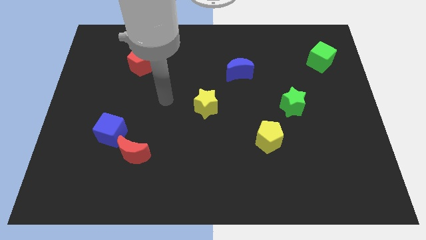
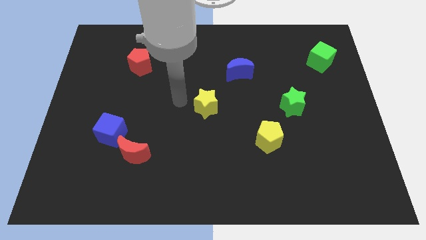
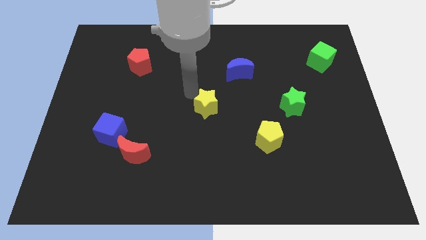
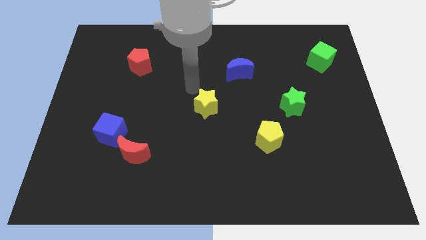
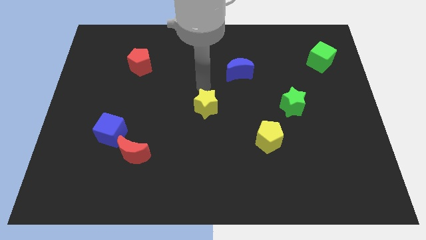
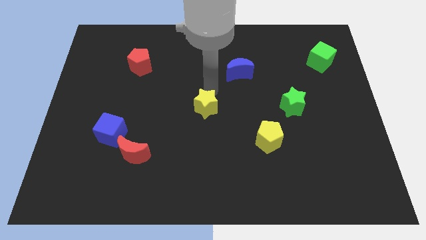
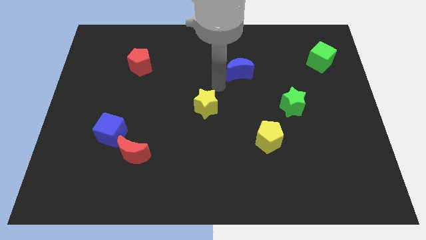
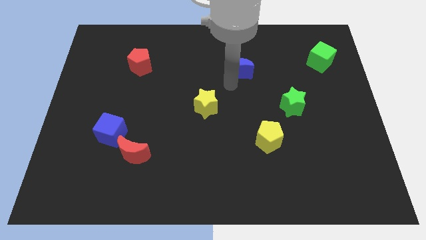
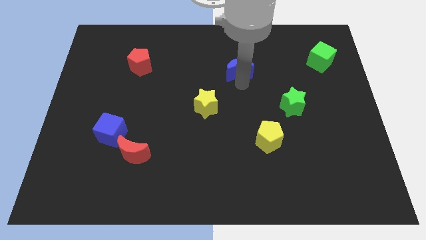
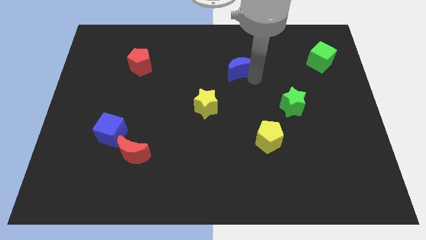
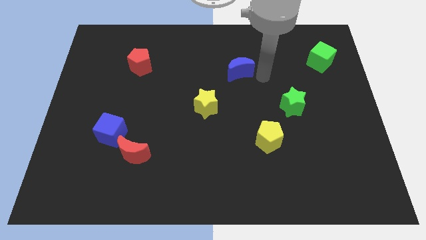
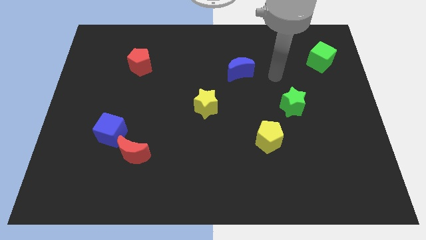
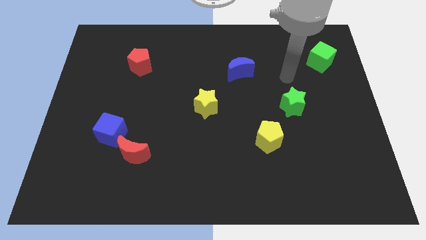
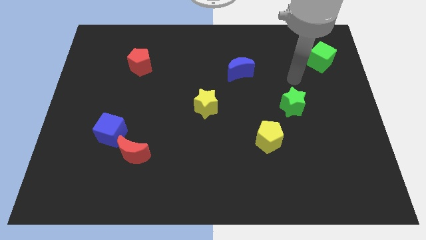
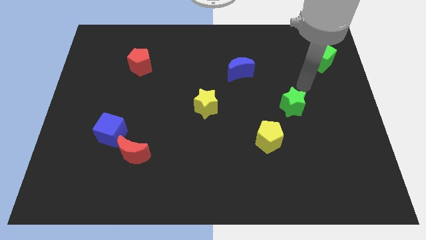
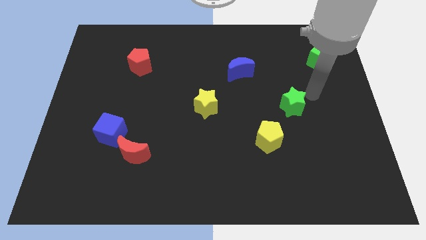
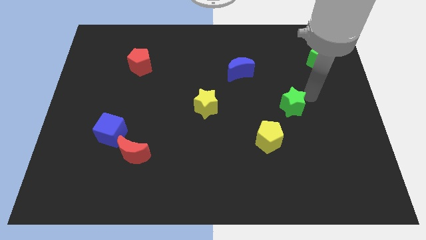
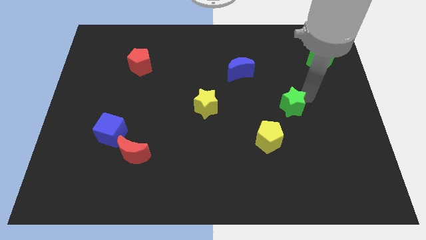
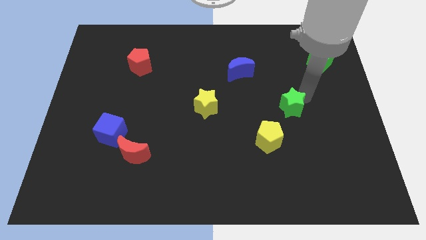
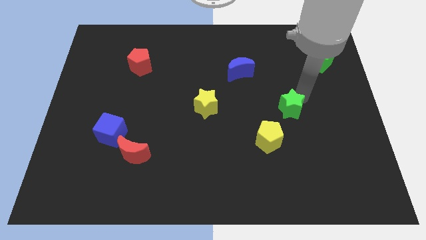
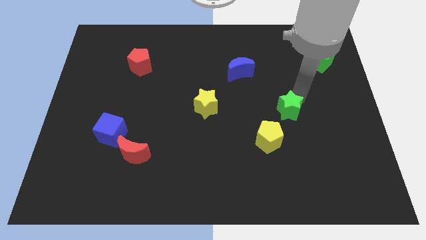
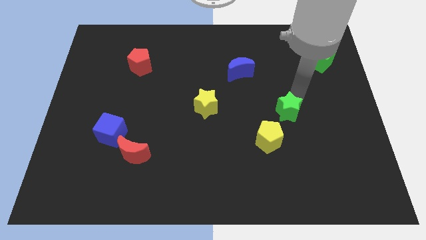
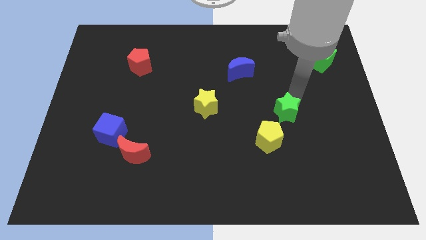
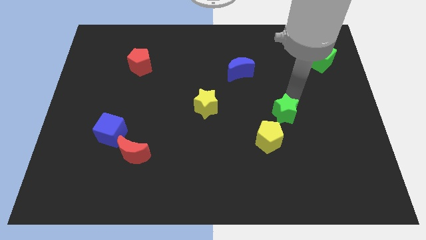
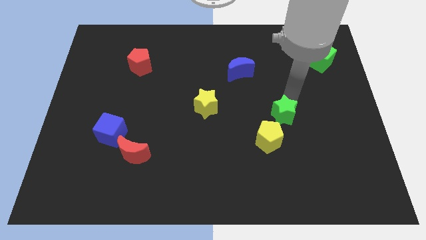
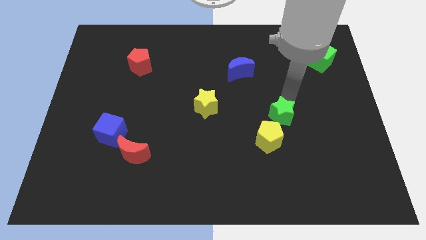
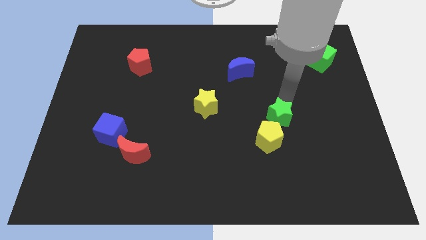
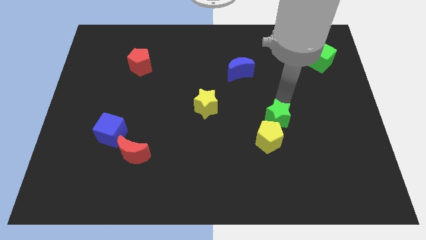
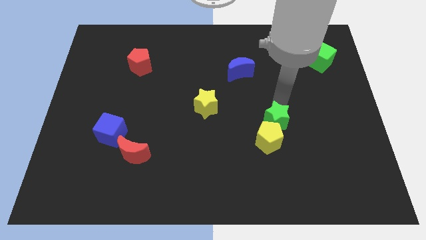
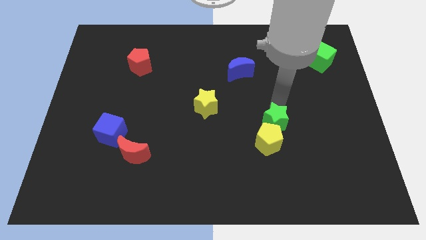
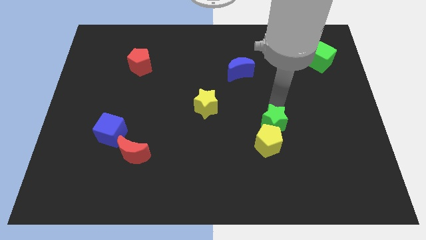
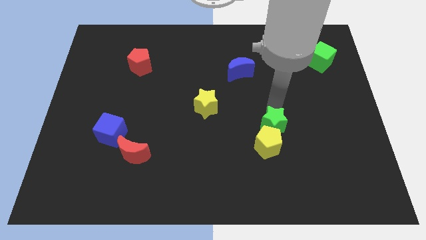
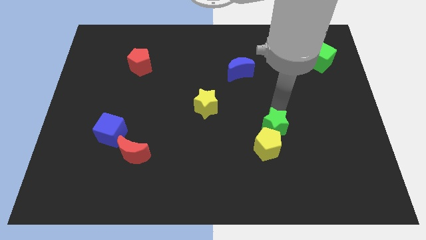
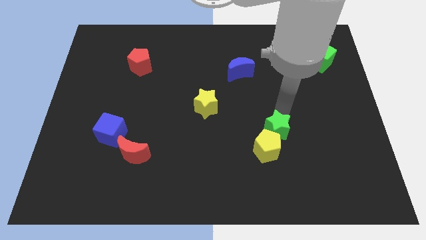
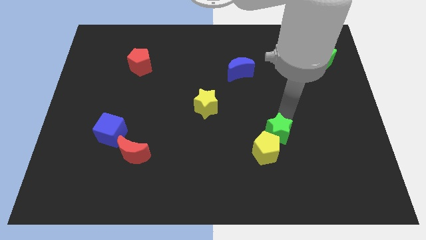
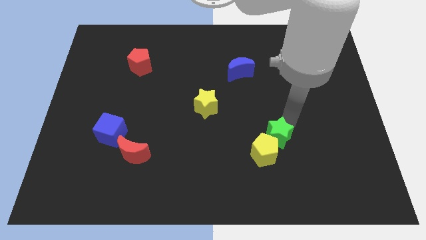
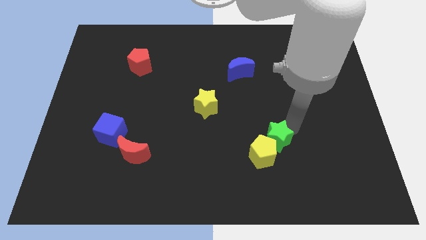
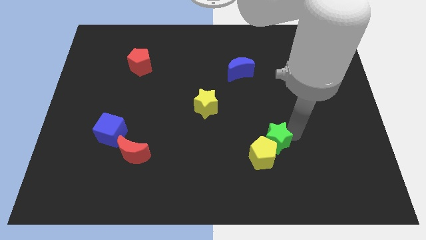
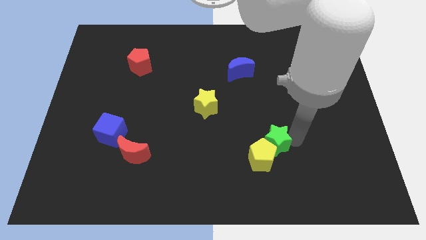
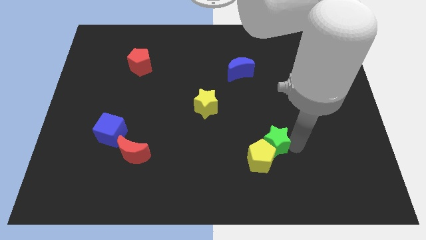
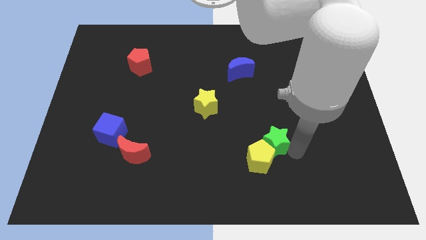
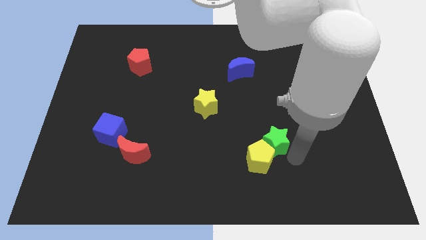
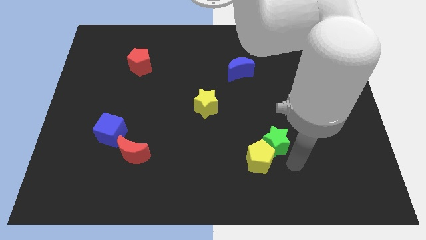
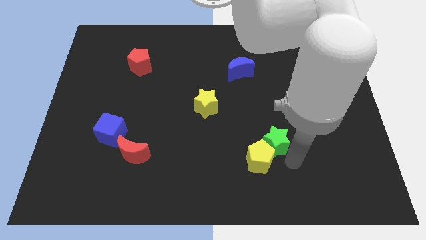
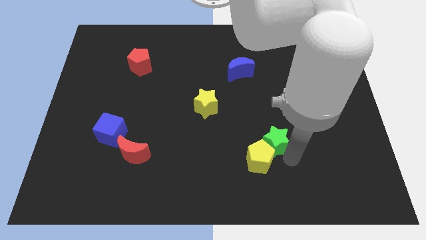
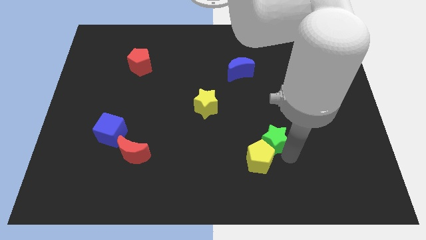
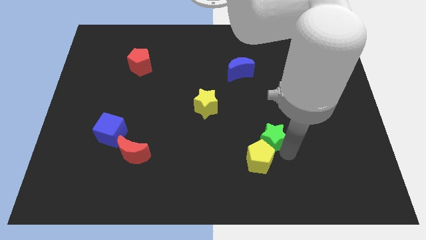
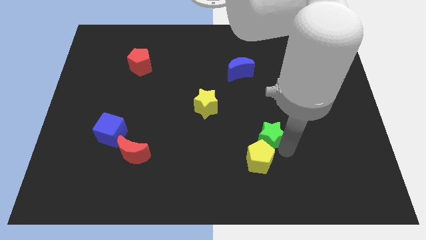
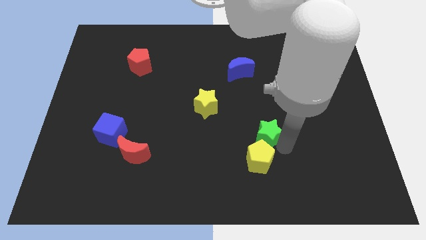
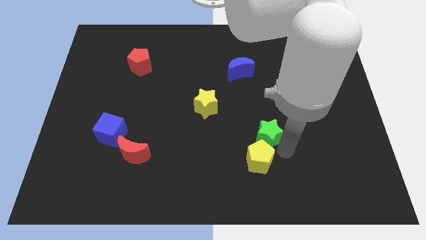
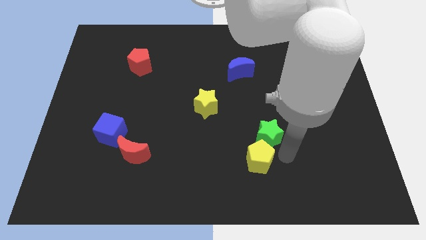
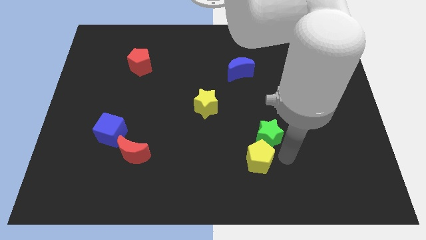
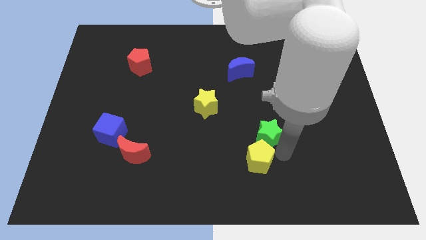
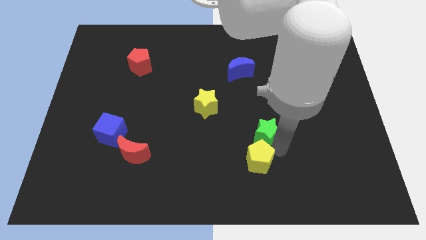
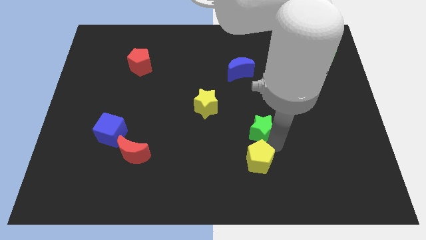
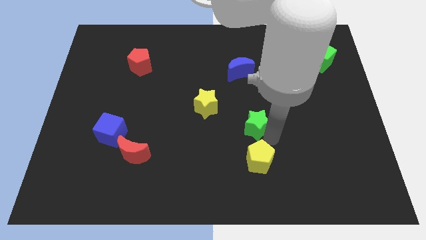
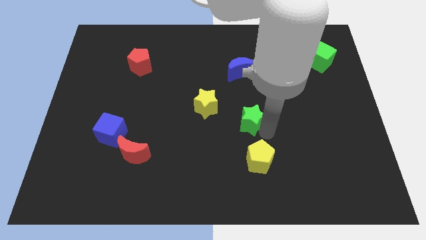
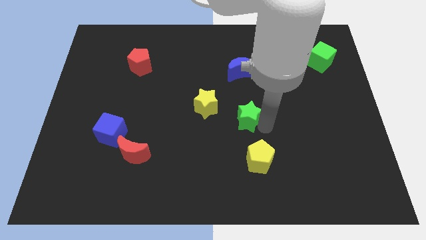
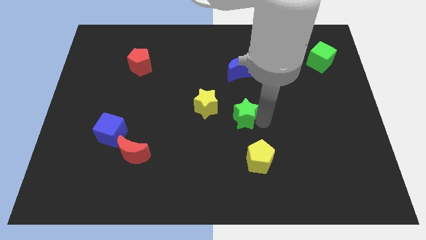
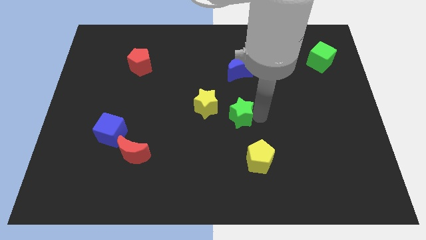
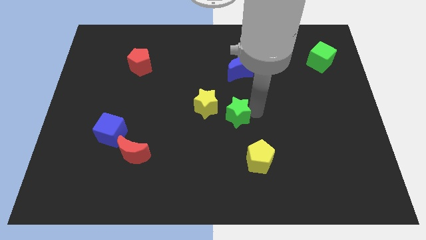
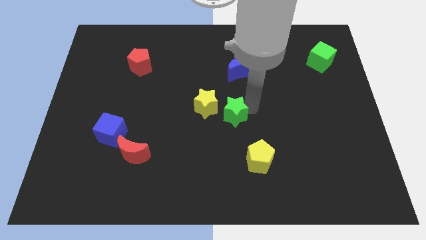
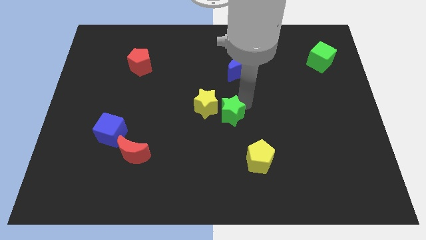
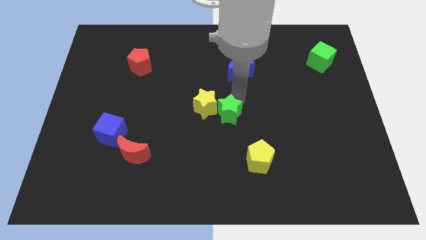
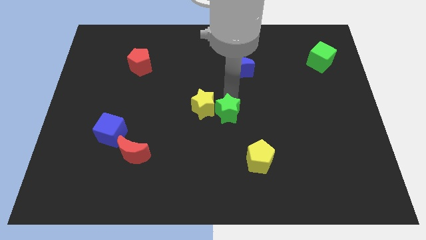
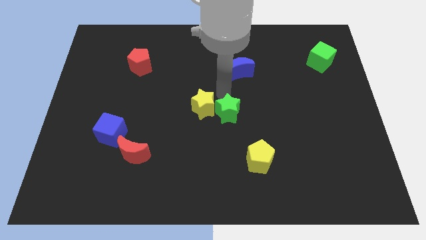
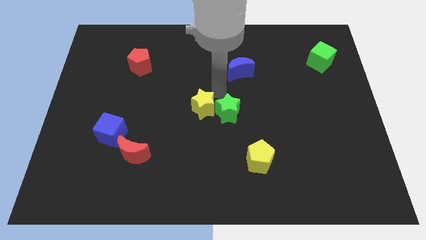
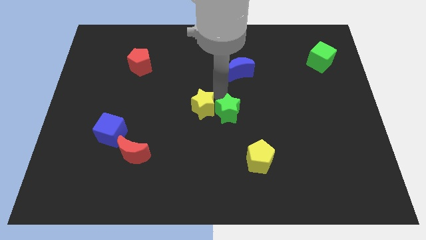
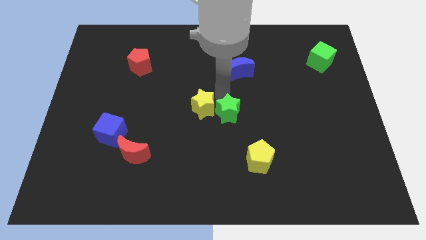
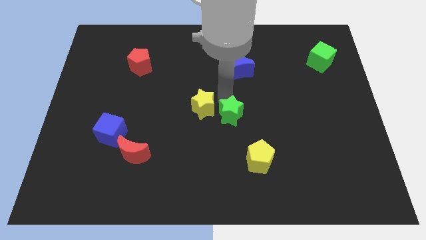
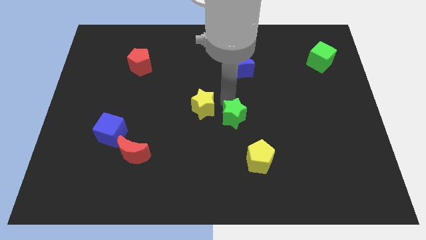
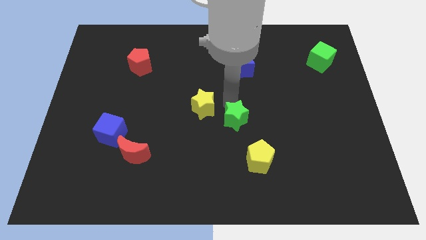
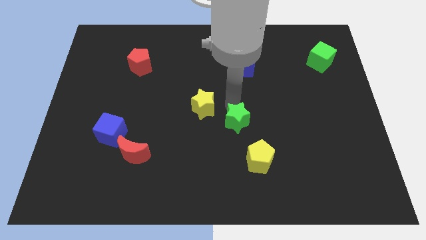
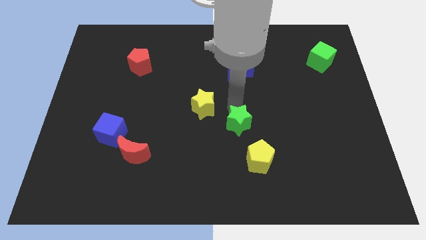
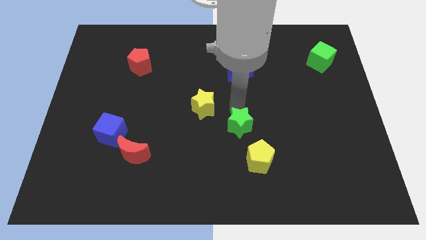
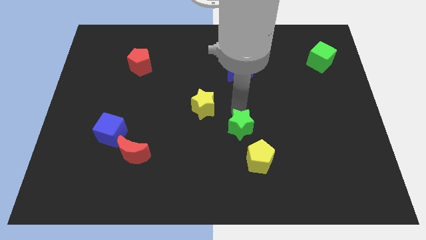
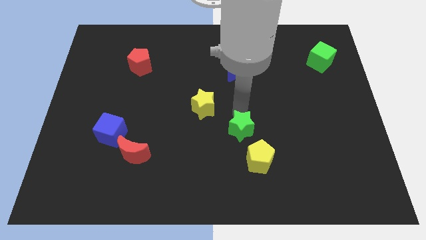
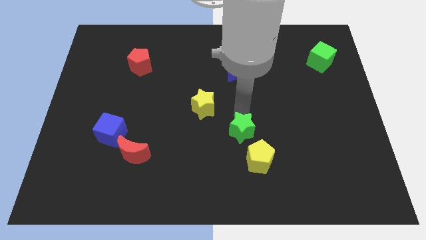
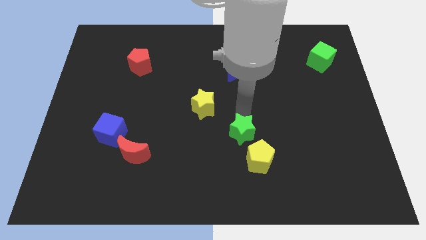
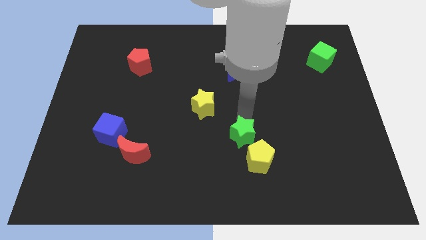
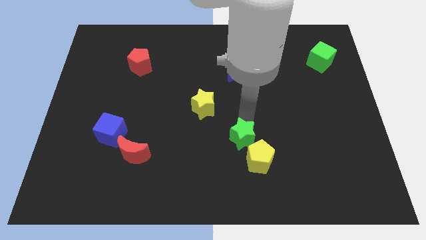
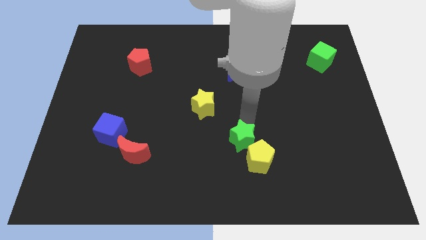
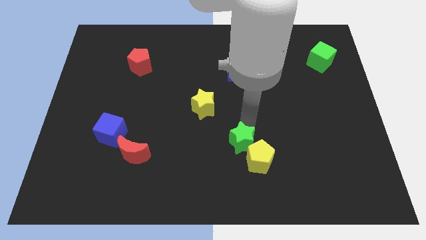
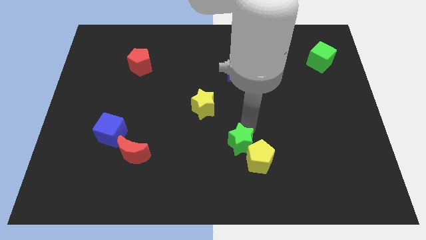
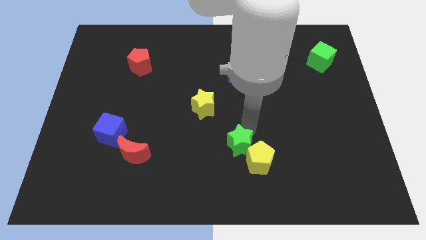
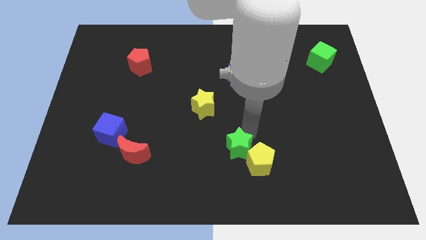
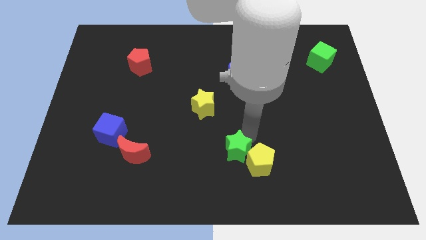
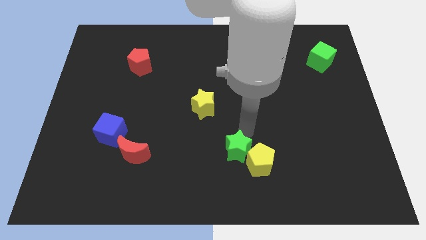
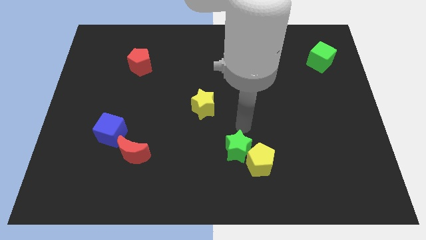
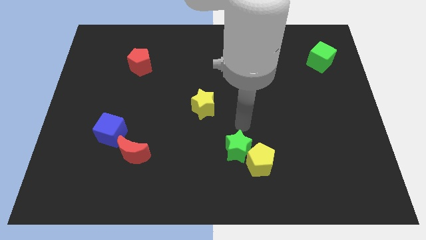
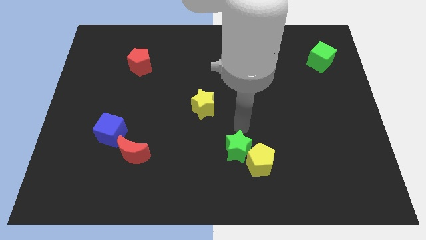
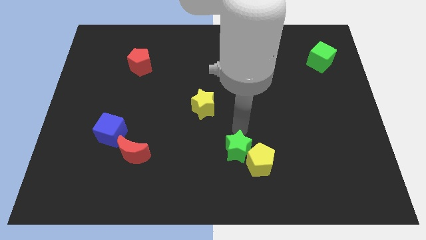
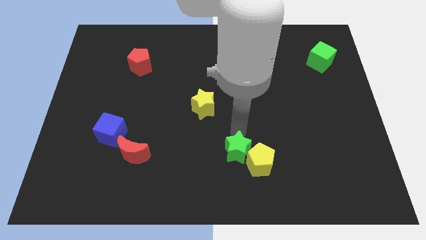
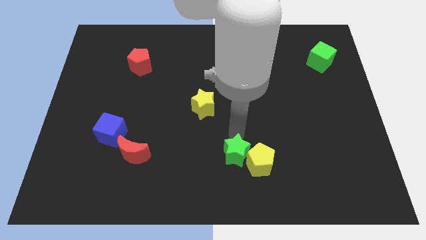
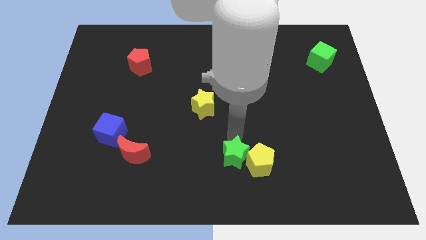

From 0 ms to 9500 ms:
slide the green star to the bottom side
